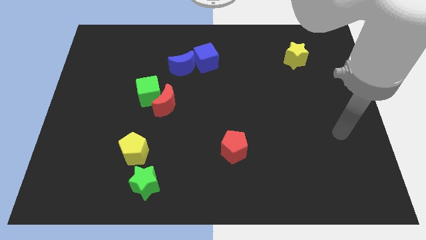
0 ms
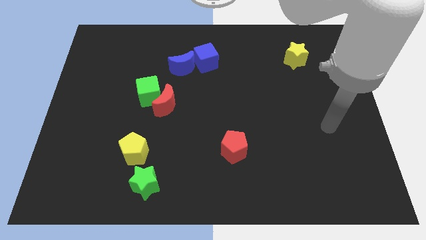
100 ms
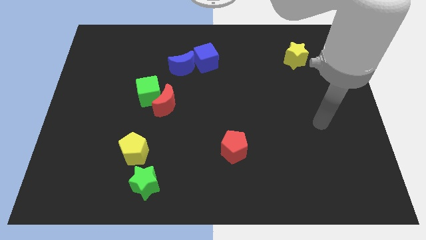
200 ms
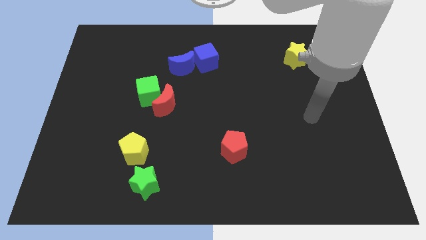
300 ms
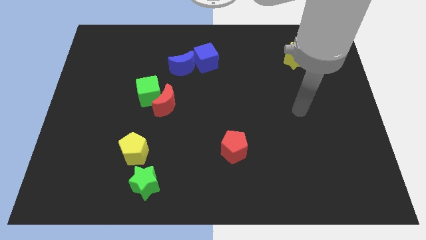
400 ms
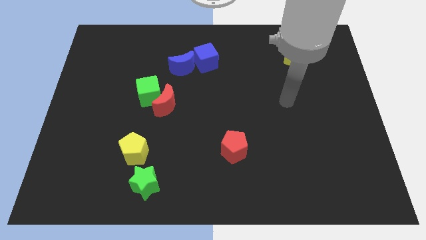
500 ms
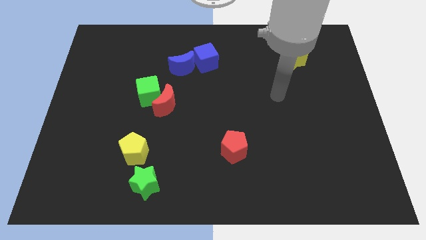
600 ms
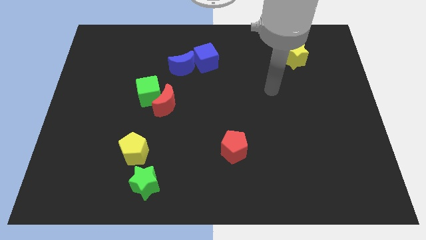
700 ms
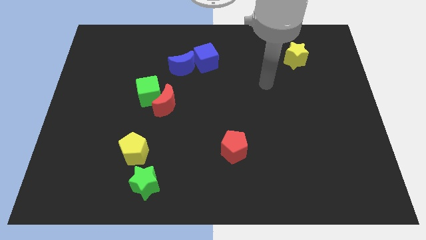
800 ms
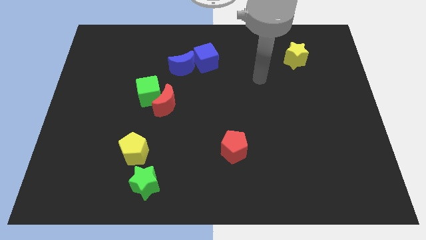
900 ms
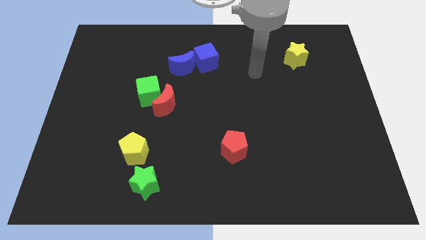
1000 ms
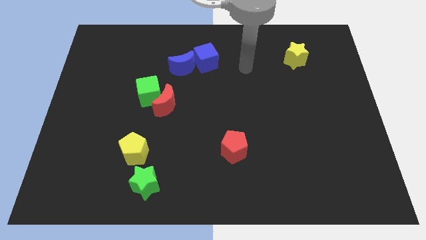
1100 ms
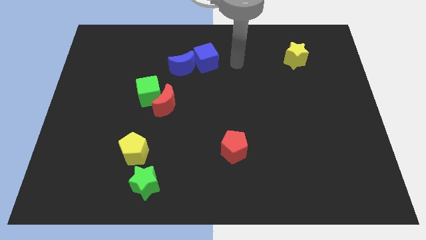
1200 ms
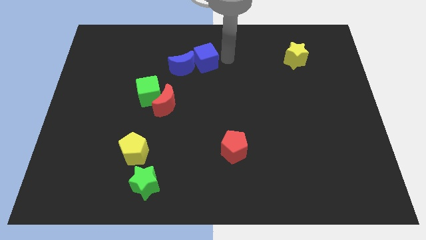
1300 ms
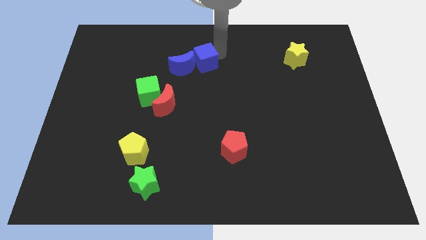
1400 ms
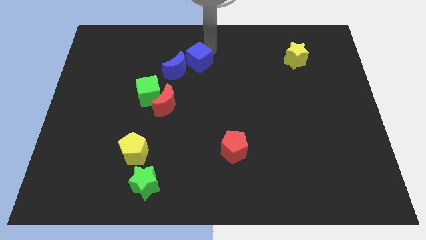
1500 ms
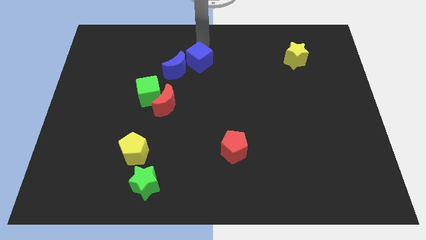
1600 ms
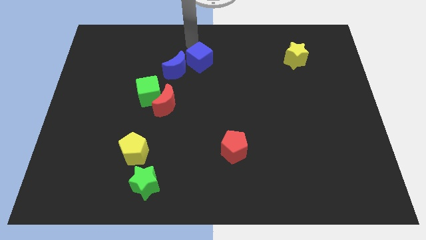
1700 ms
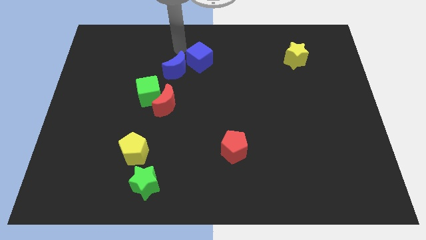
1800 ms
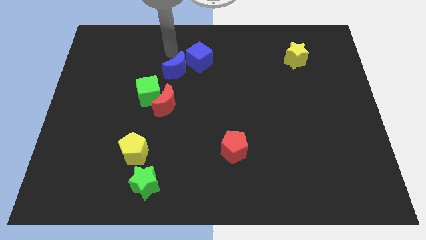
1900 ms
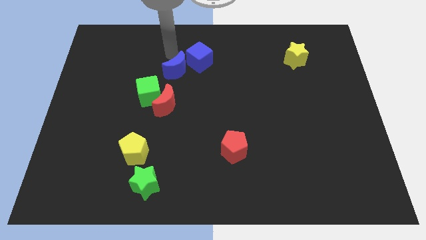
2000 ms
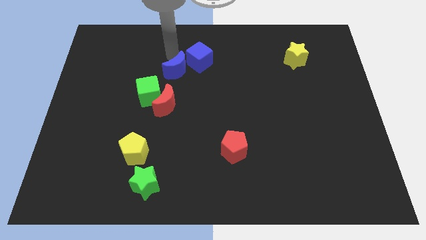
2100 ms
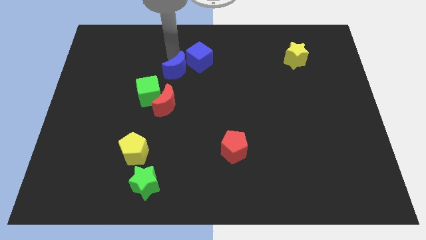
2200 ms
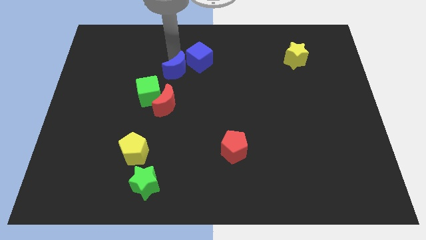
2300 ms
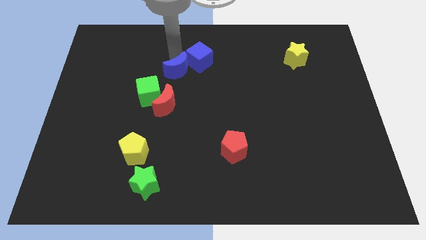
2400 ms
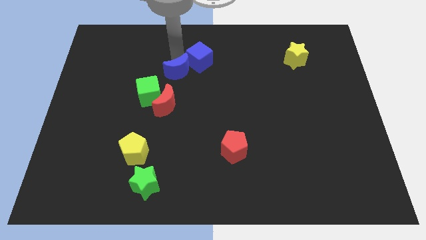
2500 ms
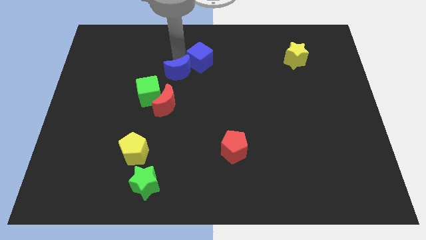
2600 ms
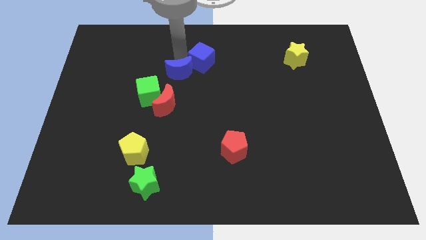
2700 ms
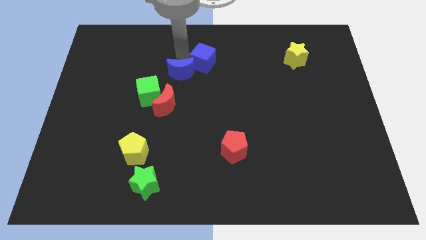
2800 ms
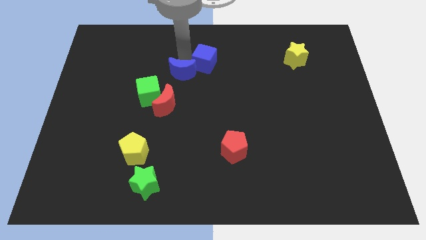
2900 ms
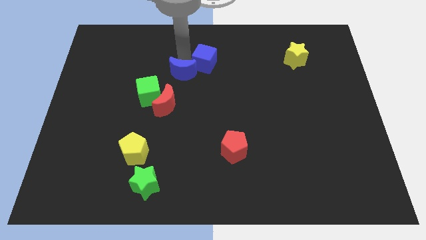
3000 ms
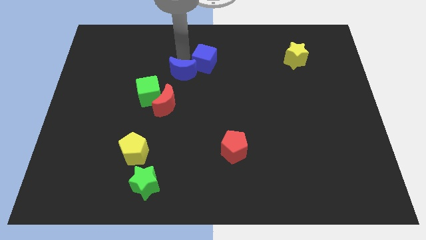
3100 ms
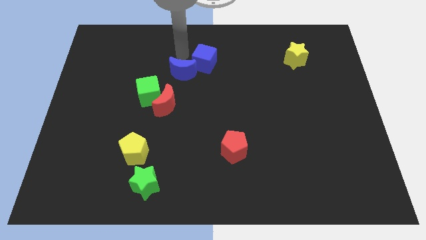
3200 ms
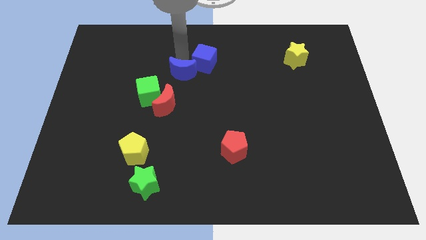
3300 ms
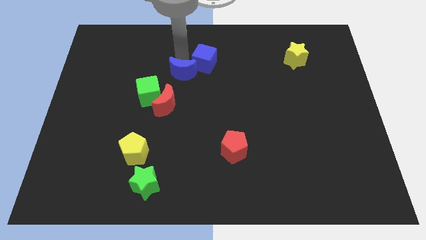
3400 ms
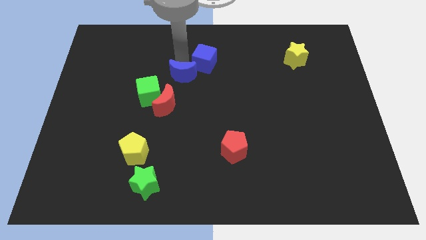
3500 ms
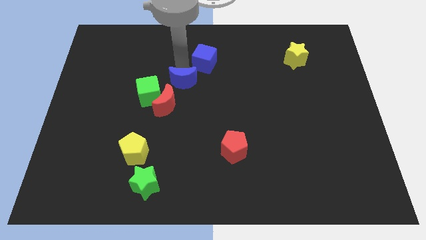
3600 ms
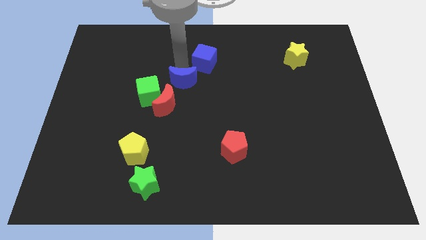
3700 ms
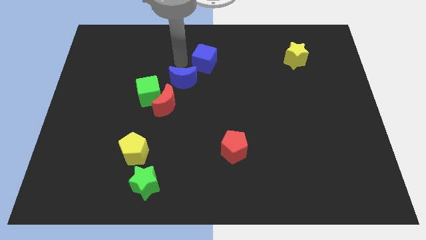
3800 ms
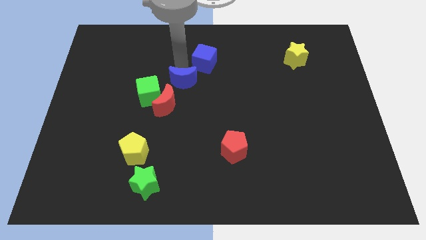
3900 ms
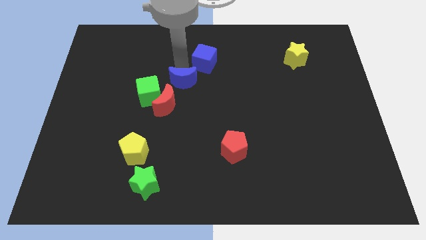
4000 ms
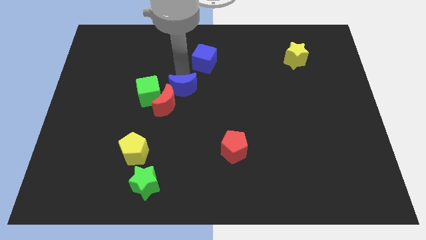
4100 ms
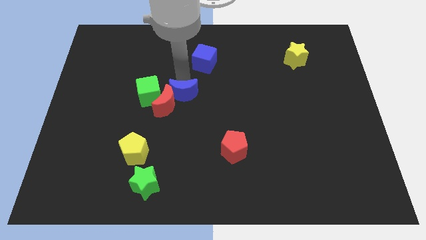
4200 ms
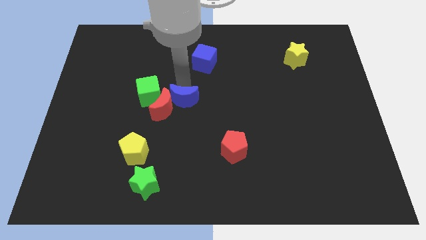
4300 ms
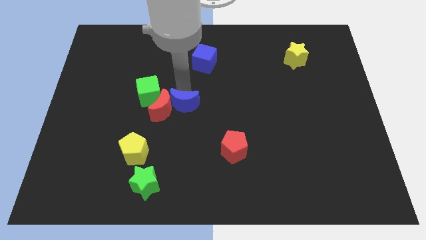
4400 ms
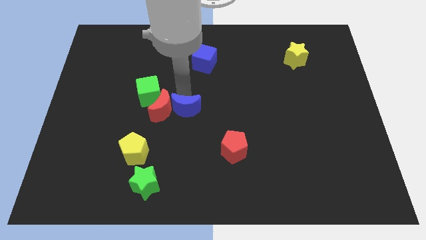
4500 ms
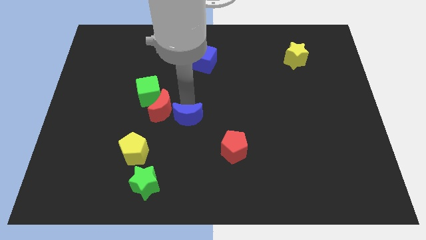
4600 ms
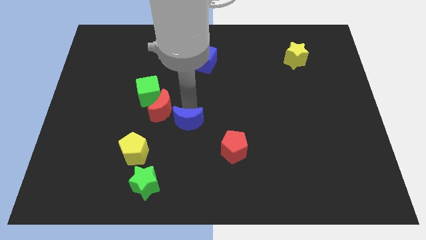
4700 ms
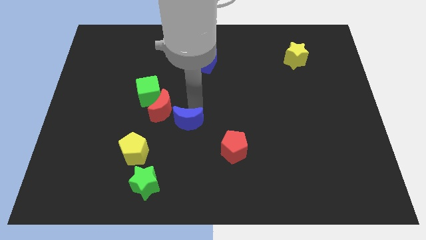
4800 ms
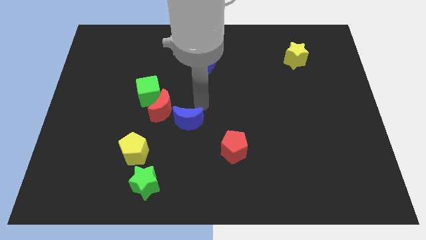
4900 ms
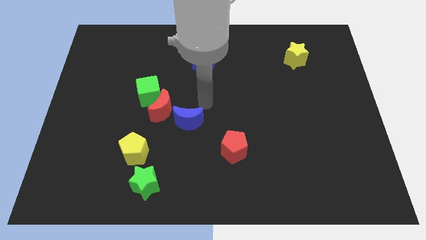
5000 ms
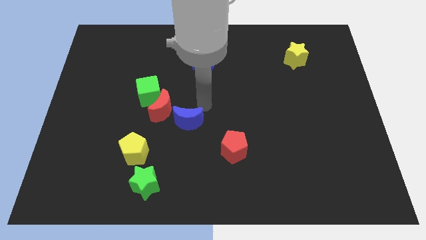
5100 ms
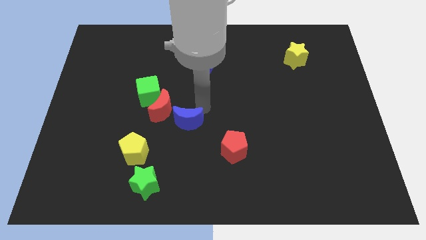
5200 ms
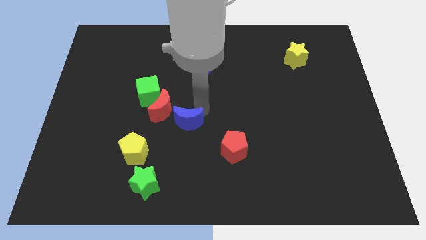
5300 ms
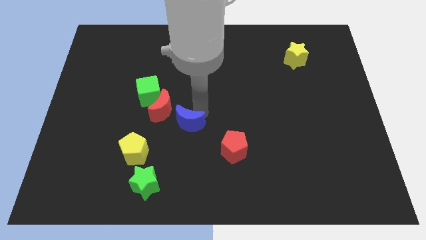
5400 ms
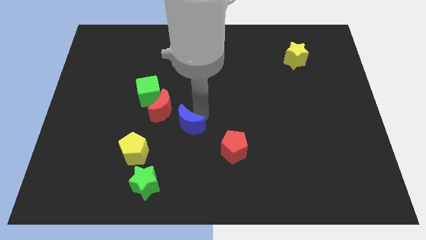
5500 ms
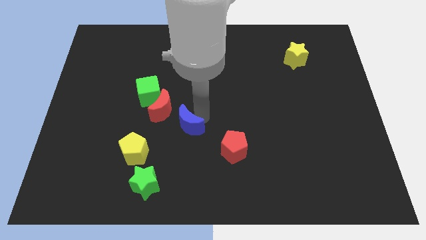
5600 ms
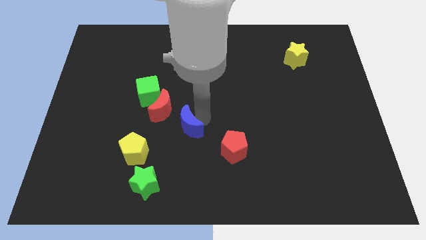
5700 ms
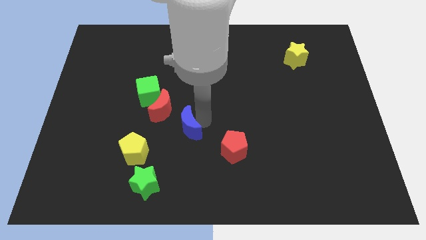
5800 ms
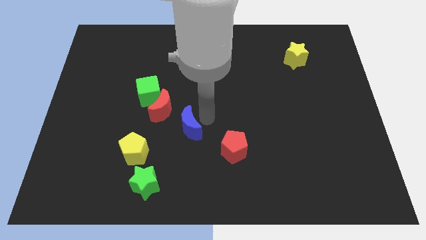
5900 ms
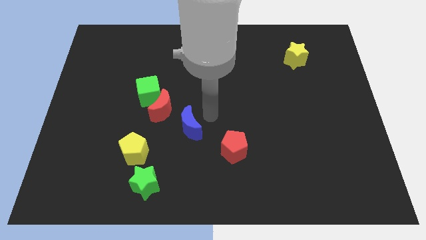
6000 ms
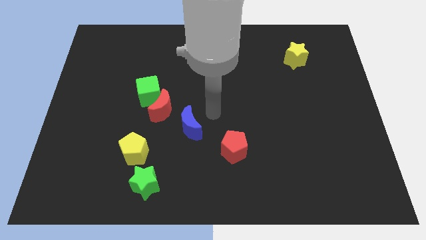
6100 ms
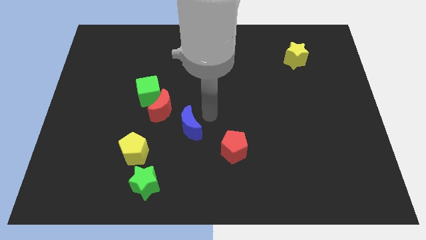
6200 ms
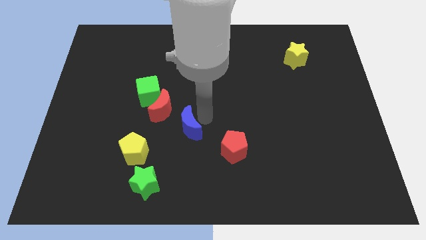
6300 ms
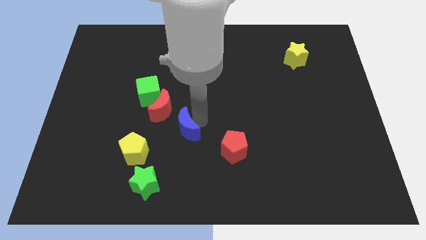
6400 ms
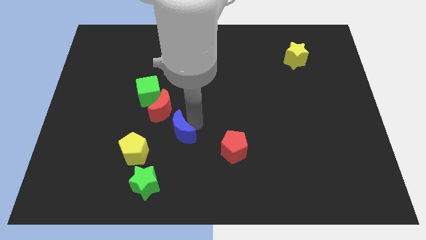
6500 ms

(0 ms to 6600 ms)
push the blue moon down

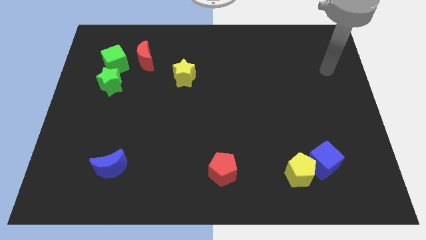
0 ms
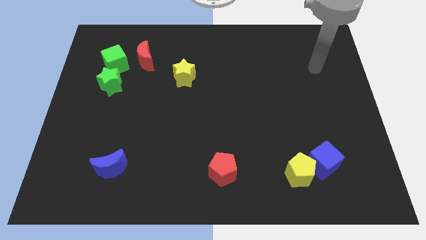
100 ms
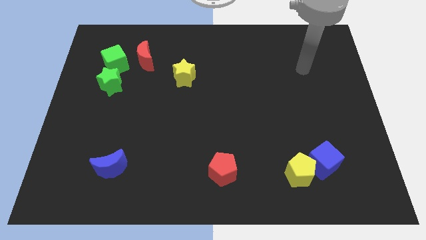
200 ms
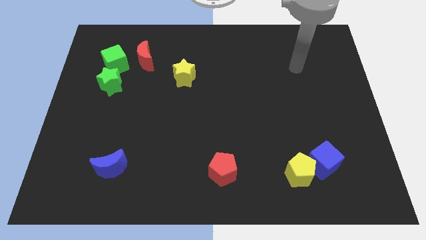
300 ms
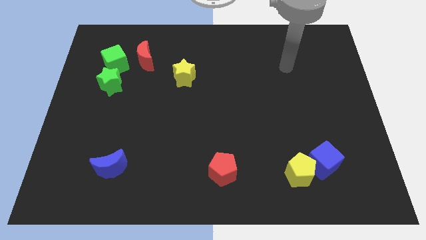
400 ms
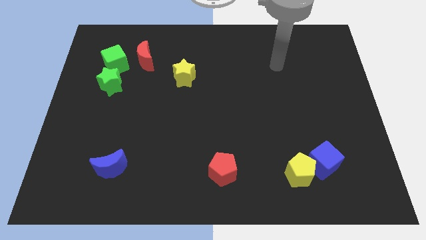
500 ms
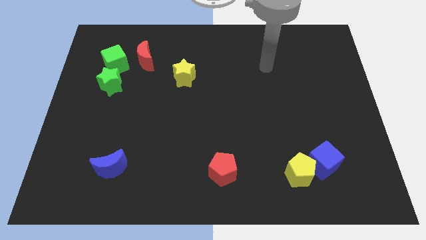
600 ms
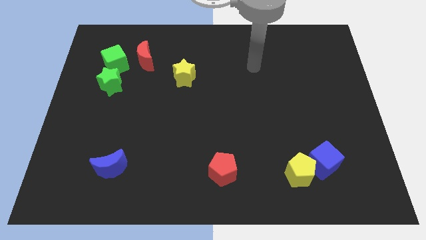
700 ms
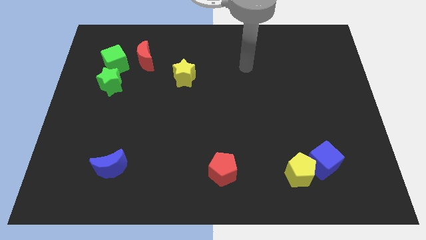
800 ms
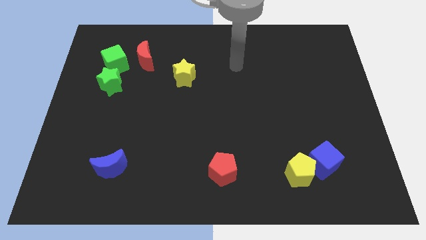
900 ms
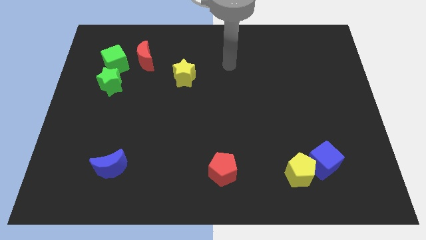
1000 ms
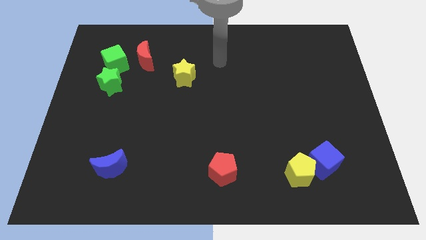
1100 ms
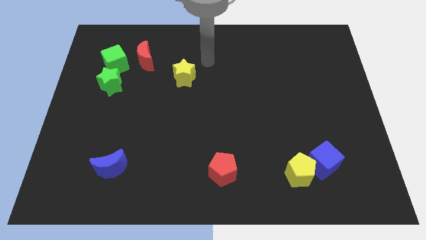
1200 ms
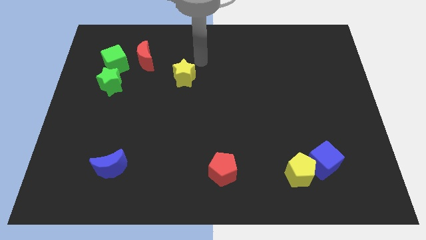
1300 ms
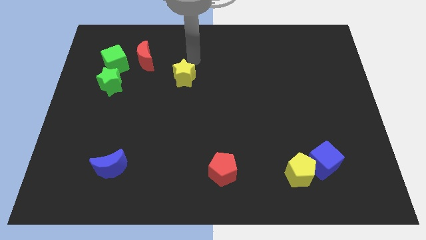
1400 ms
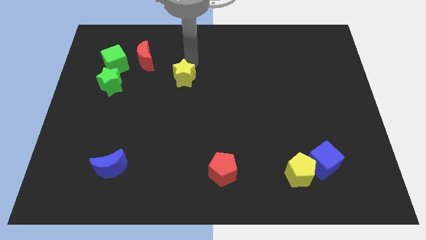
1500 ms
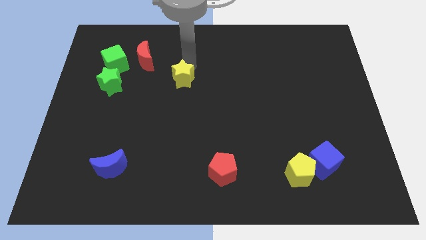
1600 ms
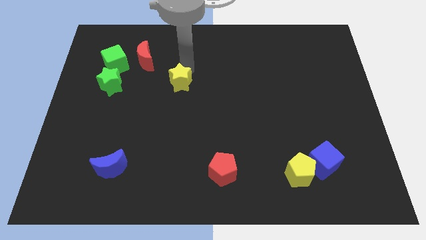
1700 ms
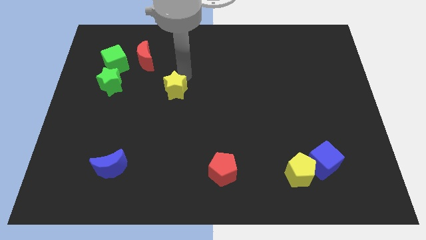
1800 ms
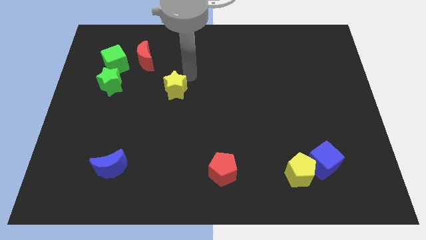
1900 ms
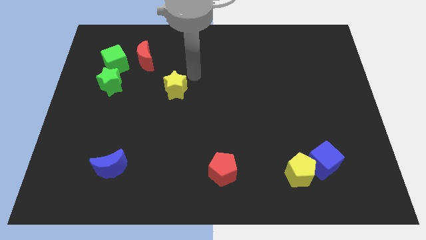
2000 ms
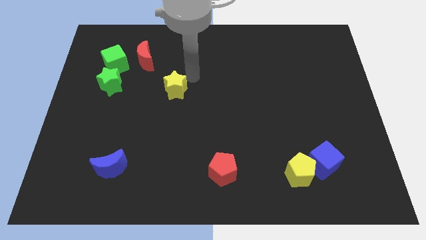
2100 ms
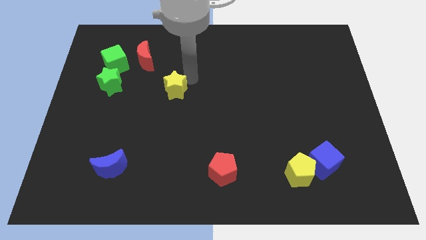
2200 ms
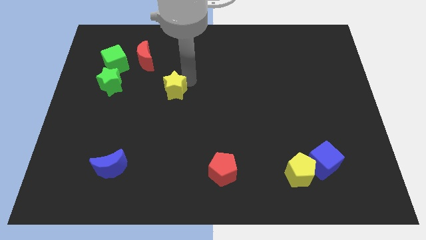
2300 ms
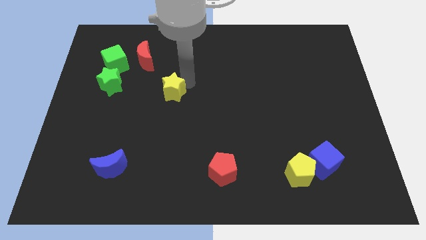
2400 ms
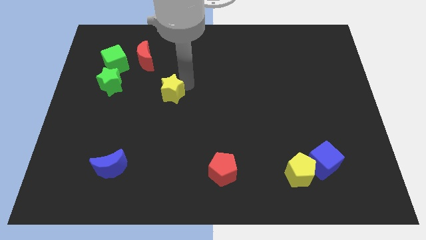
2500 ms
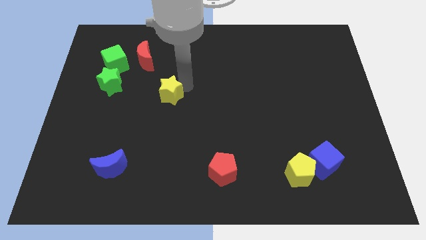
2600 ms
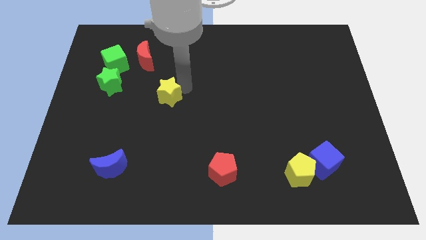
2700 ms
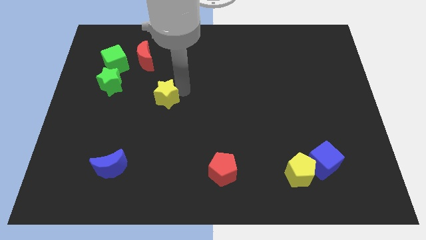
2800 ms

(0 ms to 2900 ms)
move the yellow star a bit diagonally downwards and left
